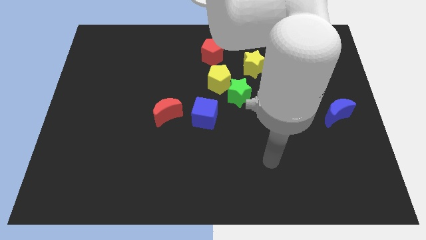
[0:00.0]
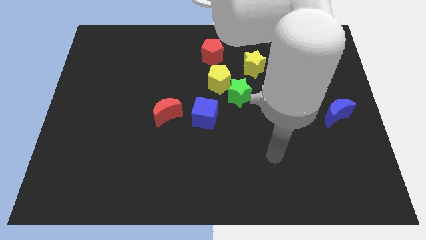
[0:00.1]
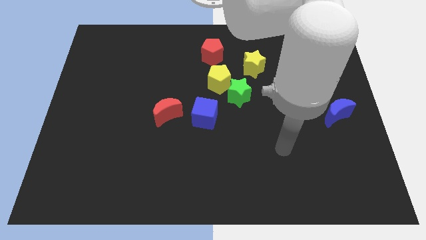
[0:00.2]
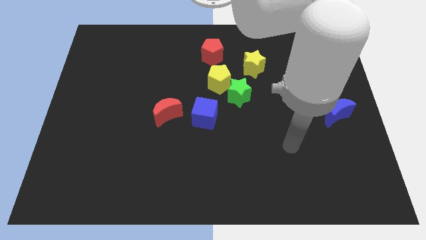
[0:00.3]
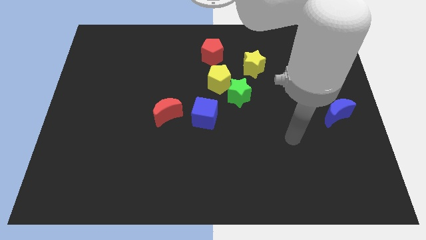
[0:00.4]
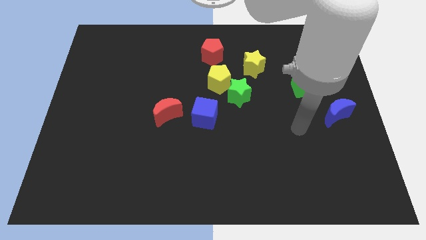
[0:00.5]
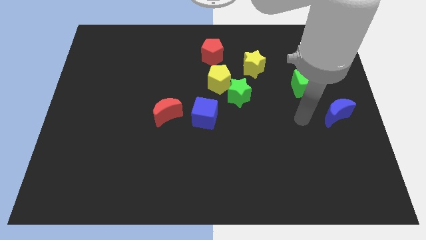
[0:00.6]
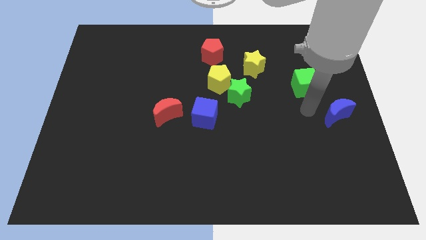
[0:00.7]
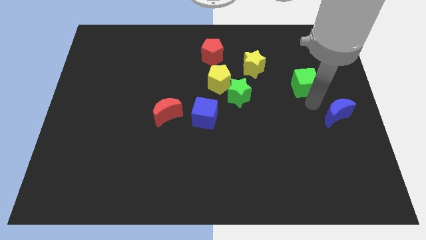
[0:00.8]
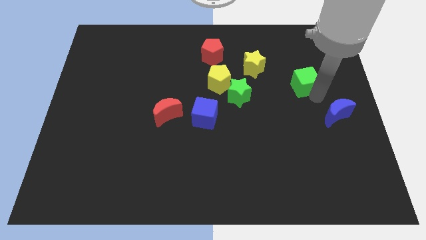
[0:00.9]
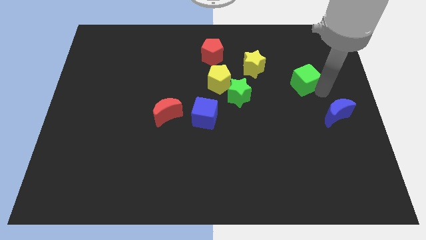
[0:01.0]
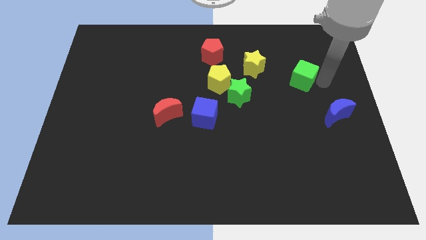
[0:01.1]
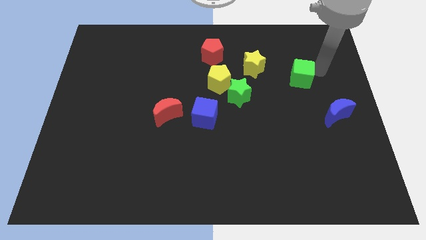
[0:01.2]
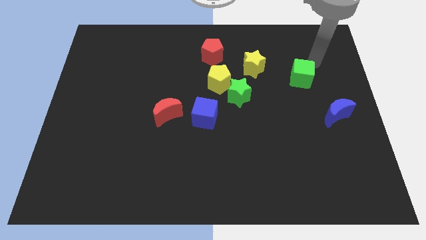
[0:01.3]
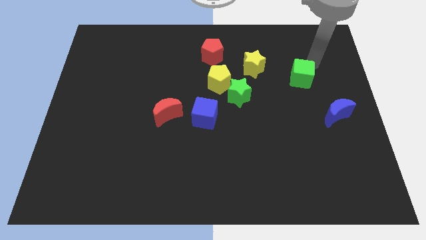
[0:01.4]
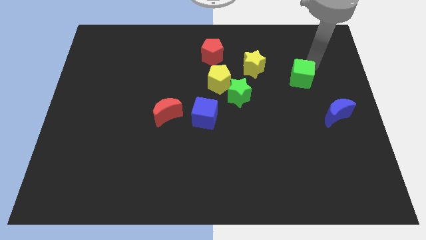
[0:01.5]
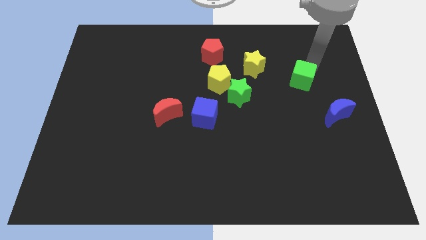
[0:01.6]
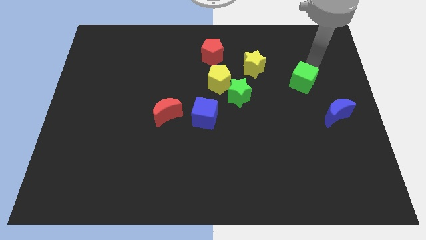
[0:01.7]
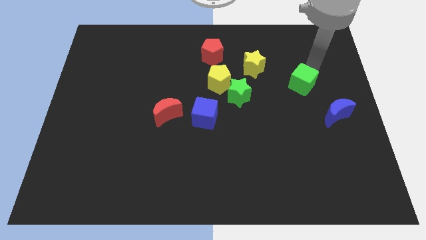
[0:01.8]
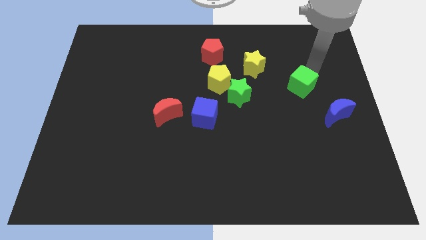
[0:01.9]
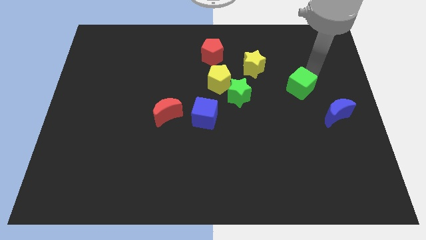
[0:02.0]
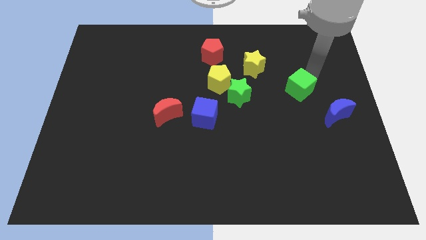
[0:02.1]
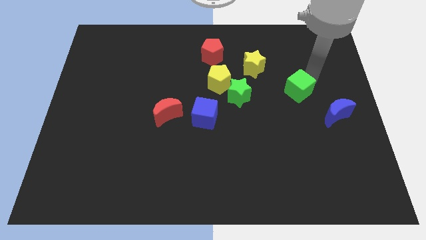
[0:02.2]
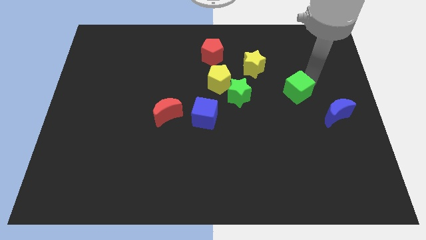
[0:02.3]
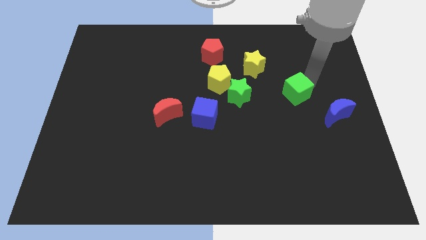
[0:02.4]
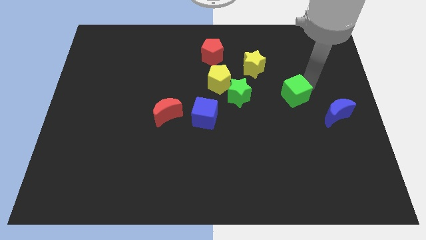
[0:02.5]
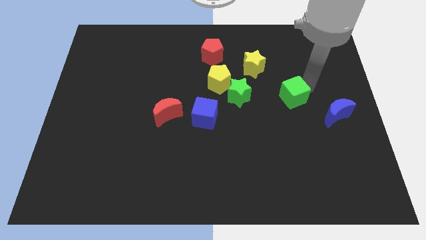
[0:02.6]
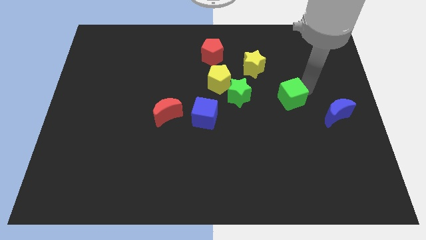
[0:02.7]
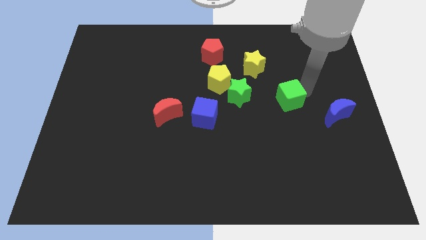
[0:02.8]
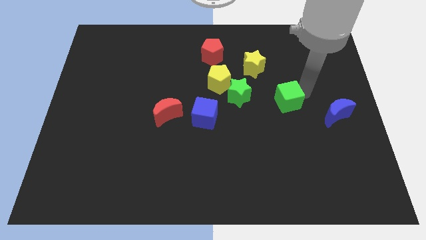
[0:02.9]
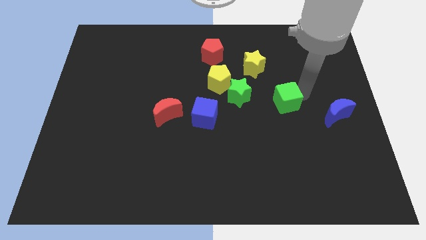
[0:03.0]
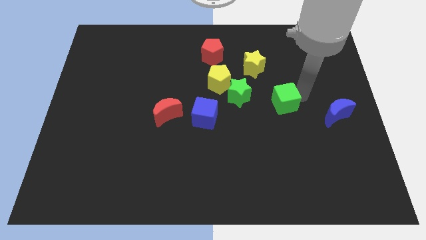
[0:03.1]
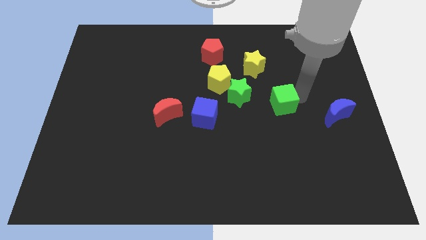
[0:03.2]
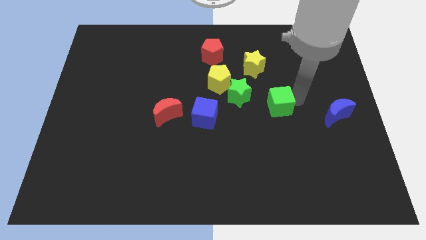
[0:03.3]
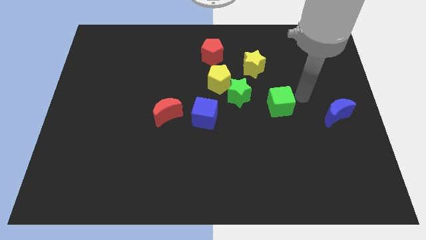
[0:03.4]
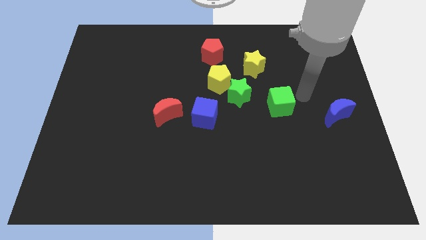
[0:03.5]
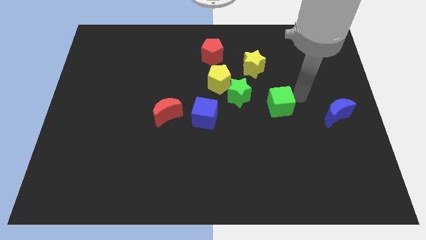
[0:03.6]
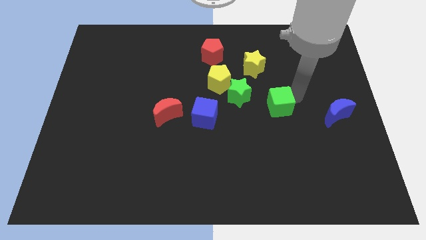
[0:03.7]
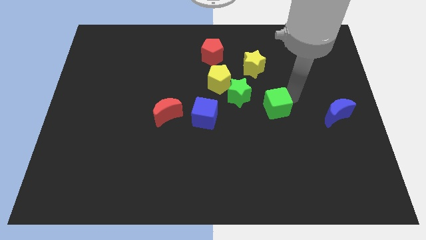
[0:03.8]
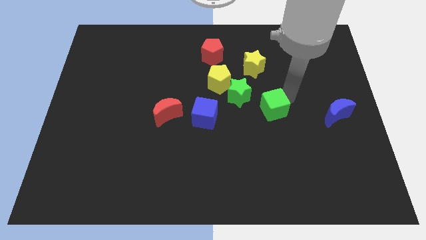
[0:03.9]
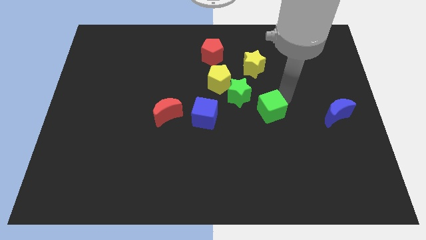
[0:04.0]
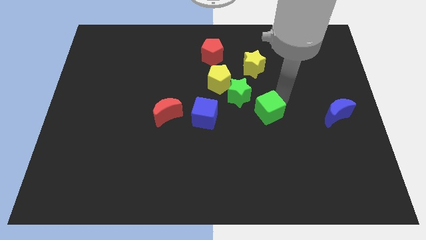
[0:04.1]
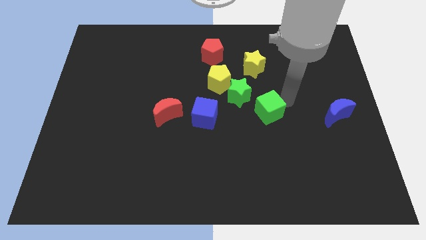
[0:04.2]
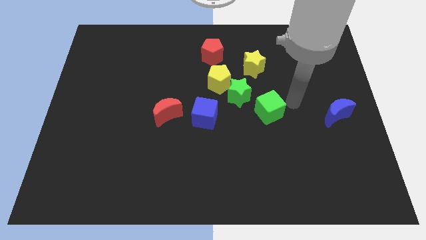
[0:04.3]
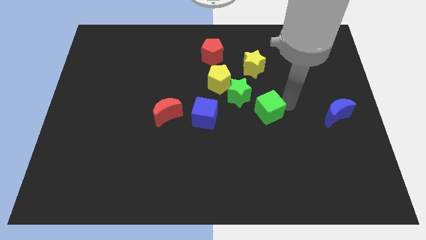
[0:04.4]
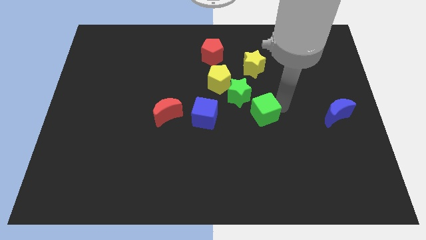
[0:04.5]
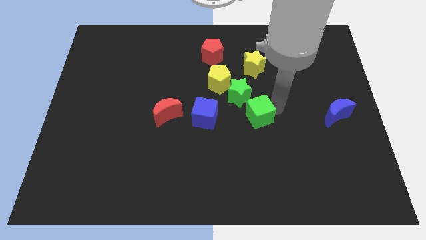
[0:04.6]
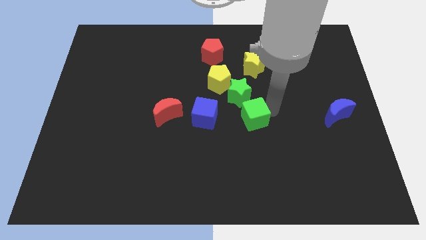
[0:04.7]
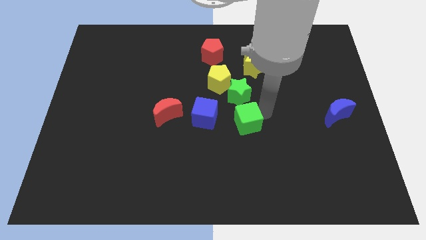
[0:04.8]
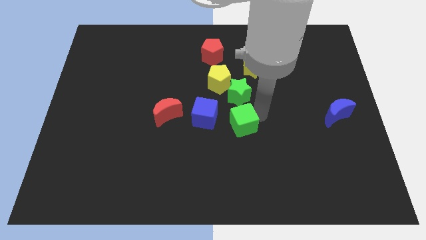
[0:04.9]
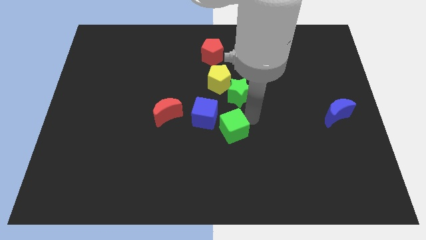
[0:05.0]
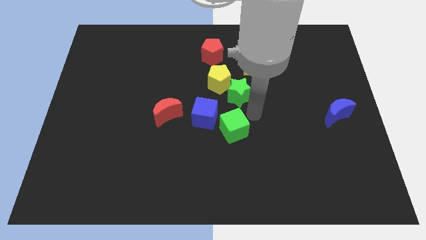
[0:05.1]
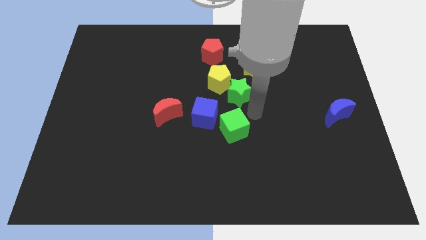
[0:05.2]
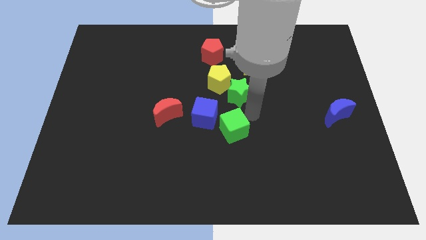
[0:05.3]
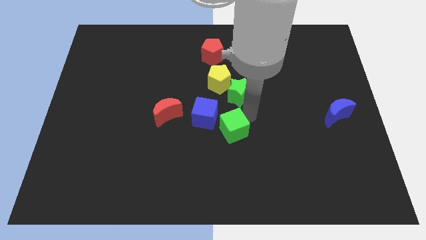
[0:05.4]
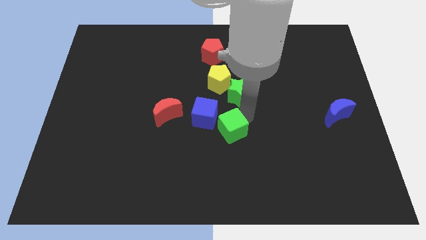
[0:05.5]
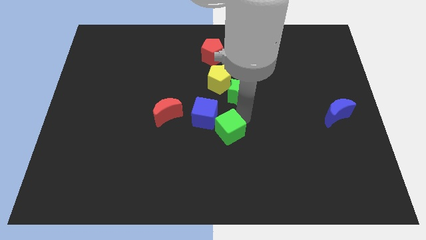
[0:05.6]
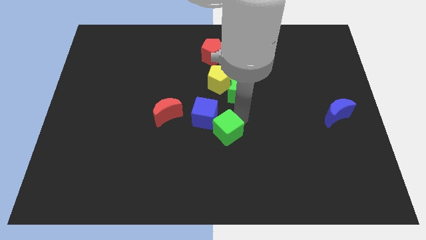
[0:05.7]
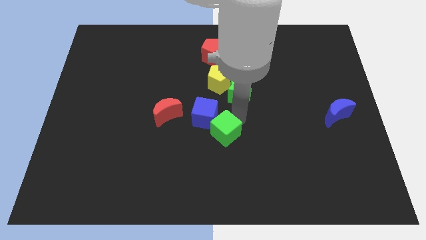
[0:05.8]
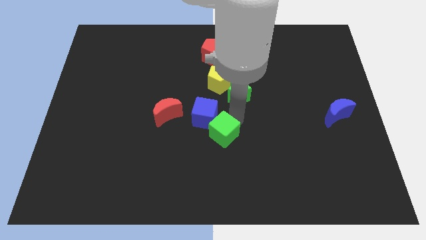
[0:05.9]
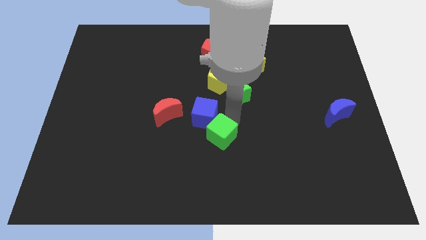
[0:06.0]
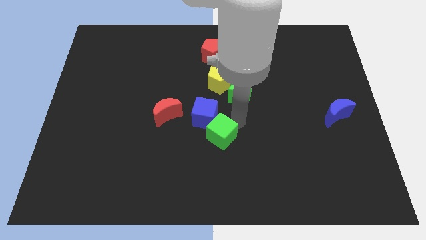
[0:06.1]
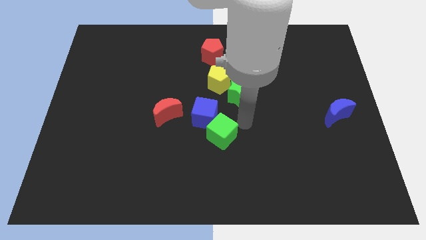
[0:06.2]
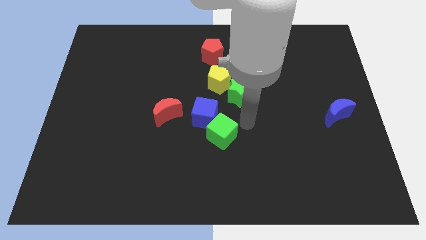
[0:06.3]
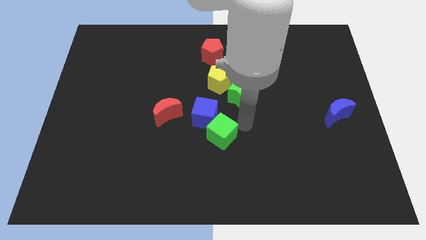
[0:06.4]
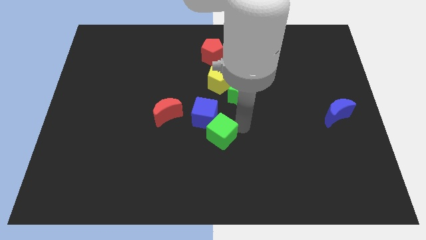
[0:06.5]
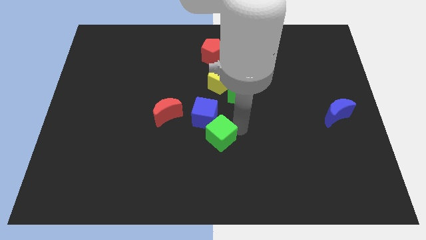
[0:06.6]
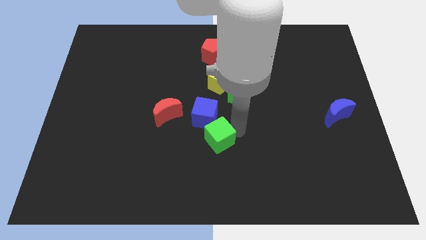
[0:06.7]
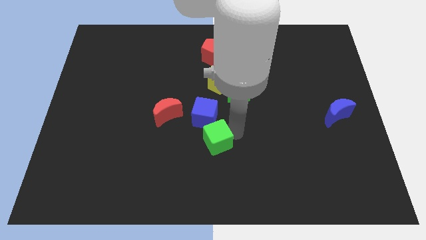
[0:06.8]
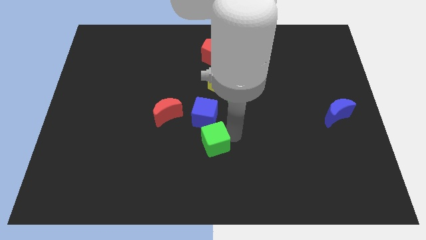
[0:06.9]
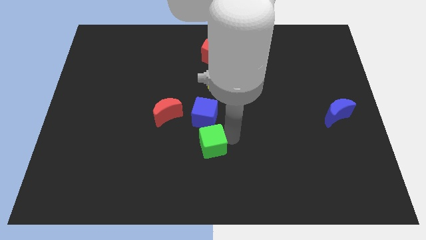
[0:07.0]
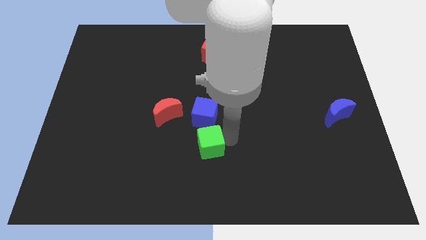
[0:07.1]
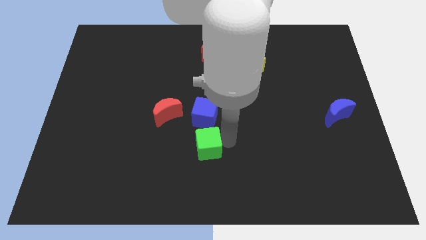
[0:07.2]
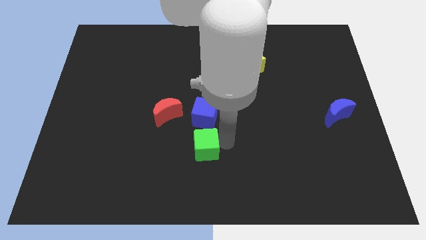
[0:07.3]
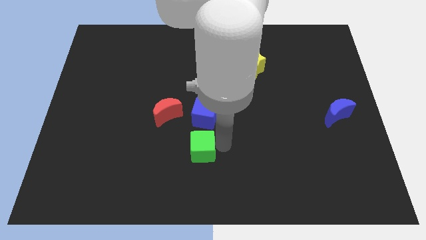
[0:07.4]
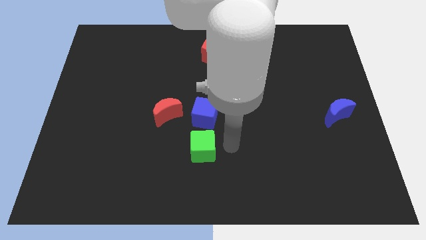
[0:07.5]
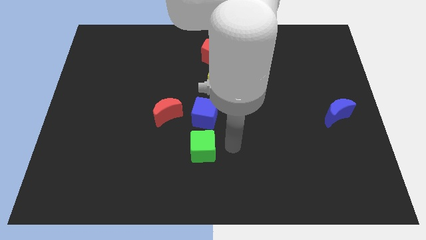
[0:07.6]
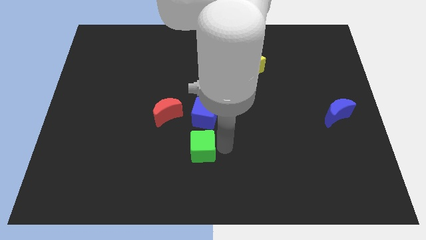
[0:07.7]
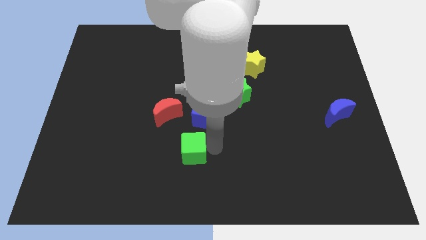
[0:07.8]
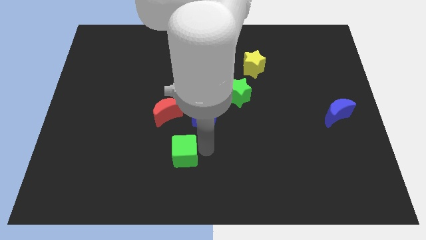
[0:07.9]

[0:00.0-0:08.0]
push the green cube to the bottom of the red moon
